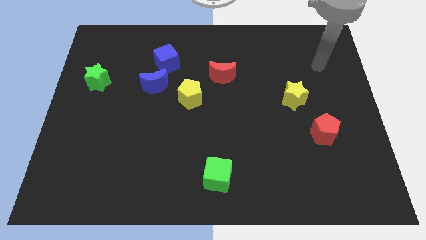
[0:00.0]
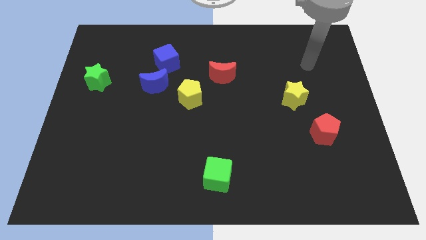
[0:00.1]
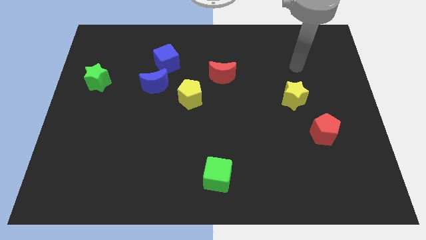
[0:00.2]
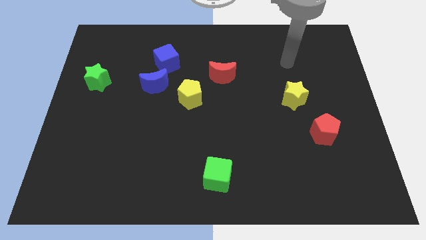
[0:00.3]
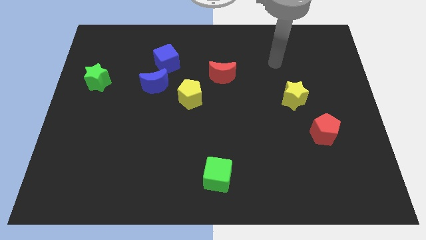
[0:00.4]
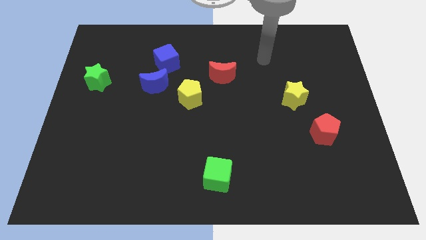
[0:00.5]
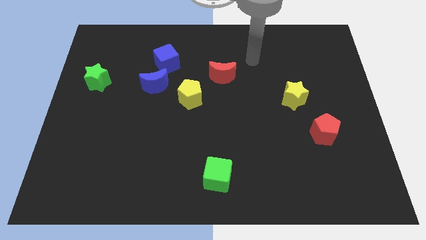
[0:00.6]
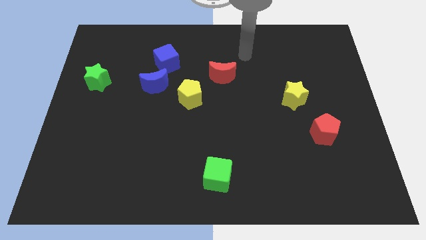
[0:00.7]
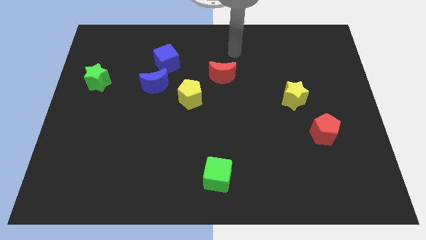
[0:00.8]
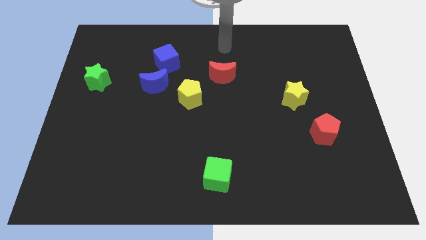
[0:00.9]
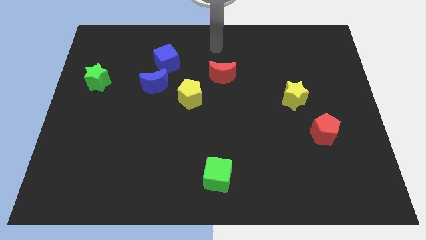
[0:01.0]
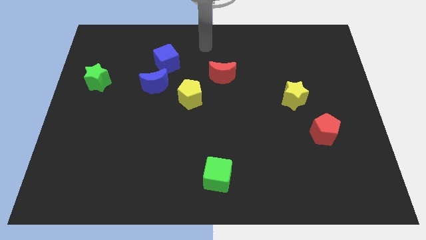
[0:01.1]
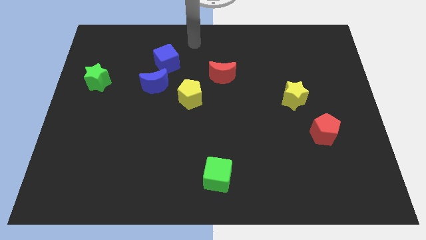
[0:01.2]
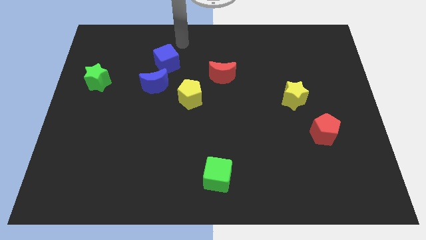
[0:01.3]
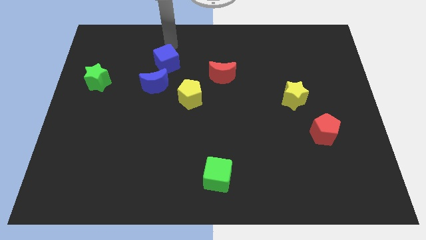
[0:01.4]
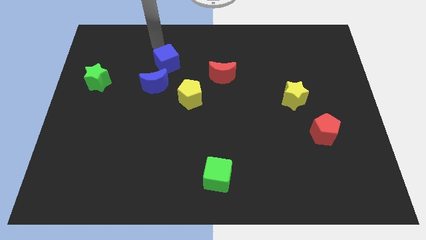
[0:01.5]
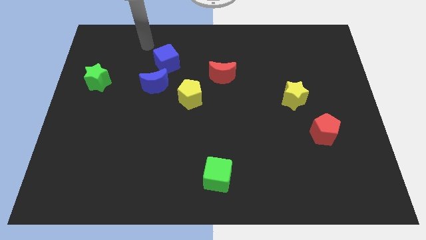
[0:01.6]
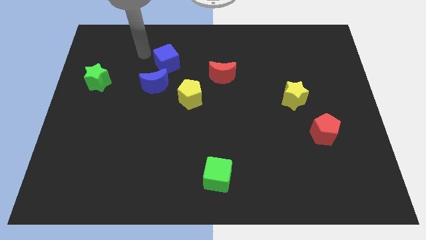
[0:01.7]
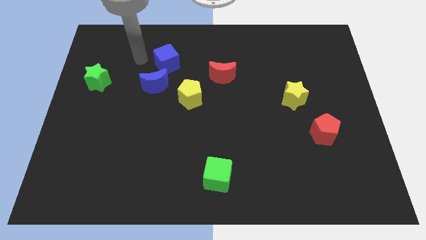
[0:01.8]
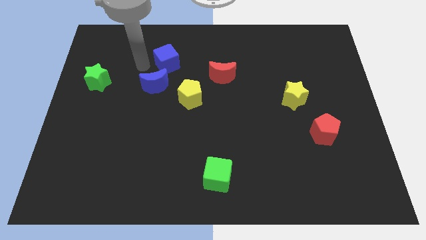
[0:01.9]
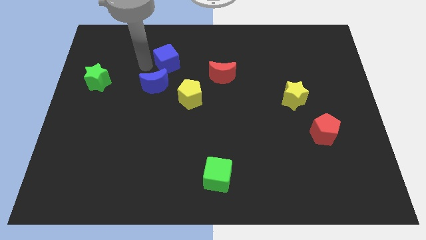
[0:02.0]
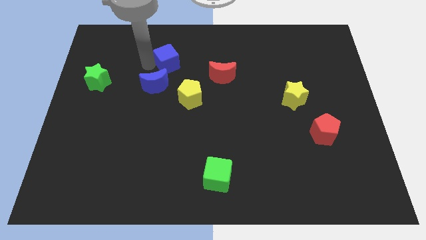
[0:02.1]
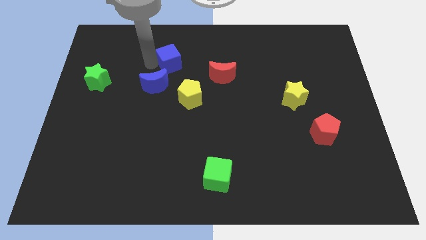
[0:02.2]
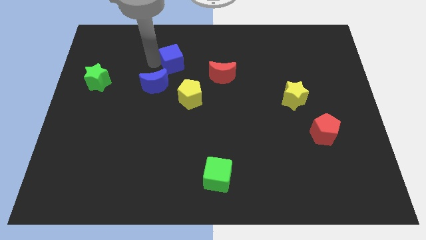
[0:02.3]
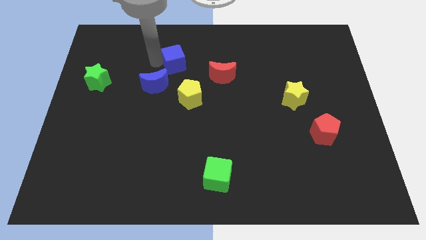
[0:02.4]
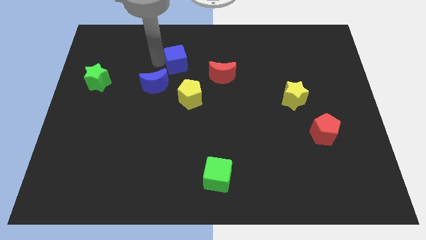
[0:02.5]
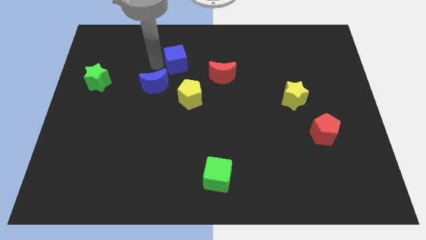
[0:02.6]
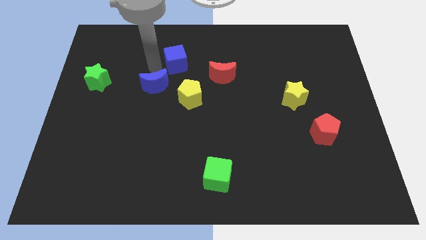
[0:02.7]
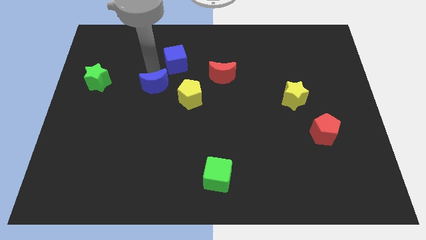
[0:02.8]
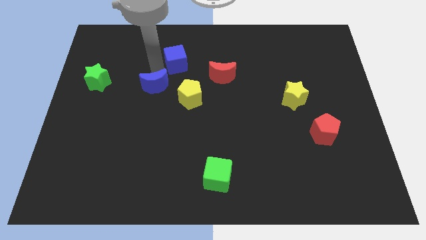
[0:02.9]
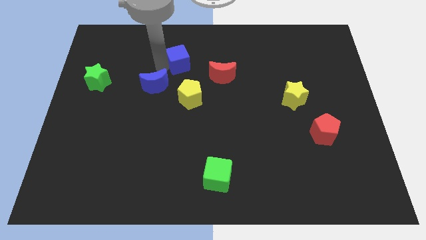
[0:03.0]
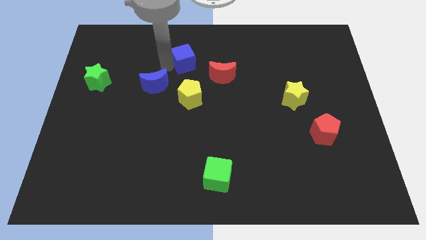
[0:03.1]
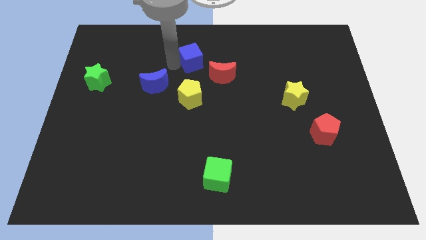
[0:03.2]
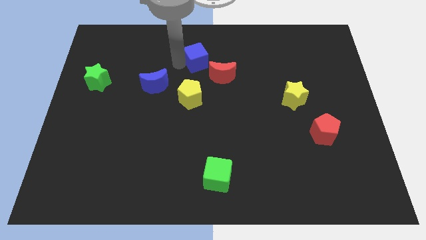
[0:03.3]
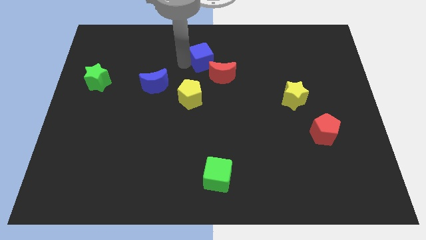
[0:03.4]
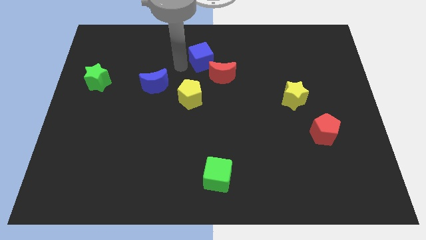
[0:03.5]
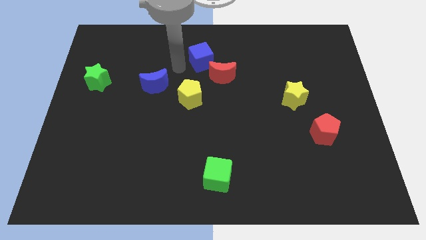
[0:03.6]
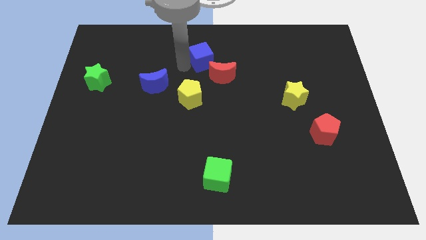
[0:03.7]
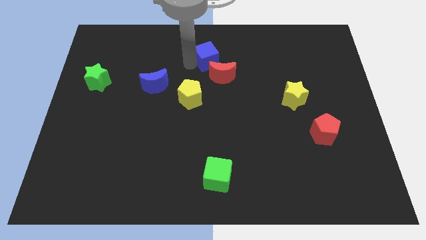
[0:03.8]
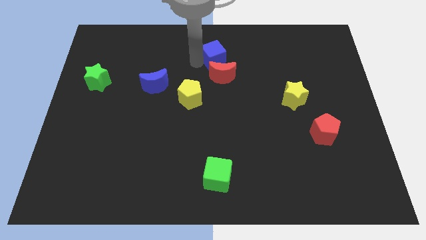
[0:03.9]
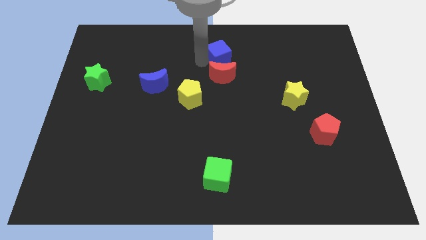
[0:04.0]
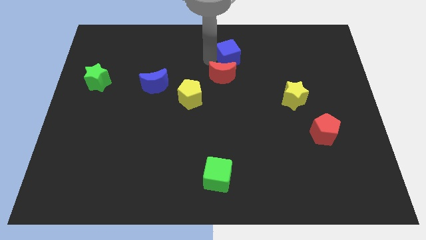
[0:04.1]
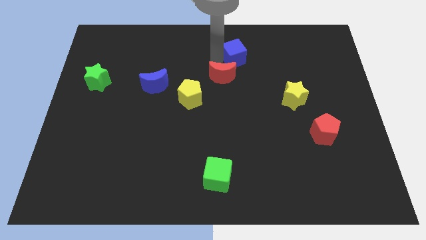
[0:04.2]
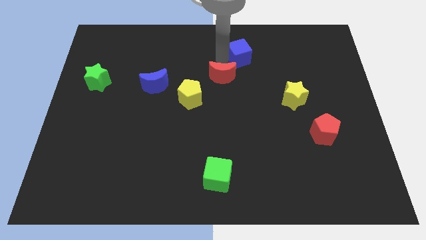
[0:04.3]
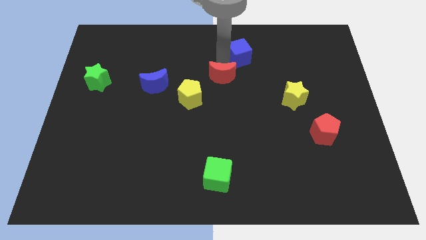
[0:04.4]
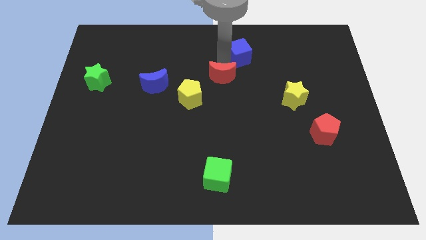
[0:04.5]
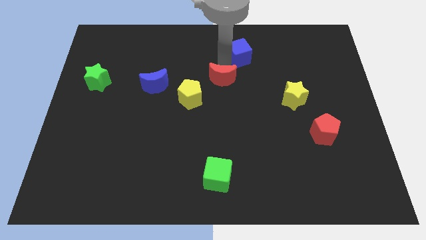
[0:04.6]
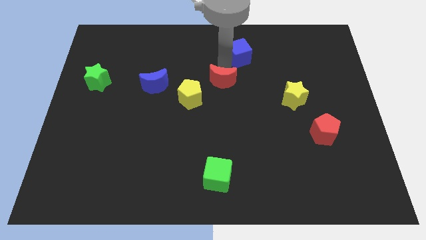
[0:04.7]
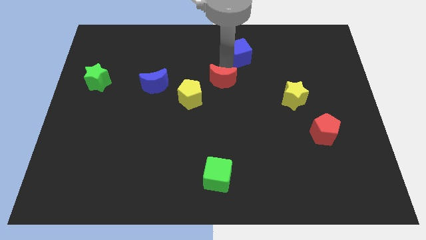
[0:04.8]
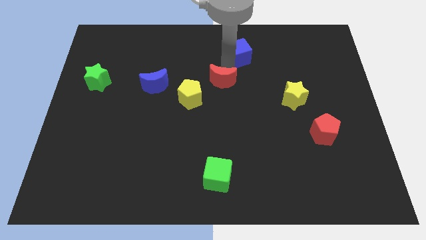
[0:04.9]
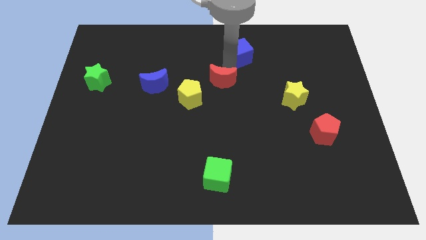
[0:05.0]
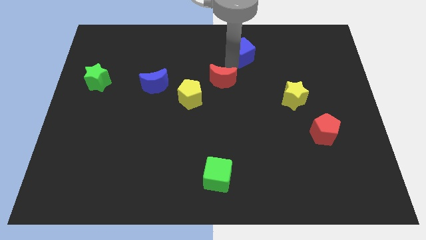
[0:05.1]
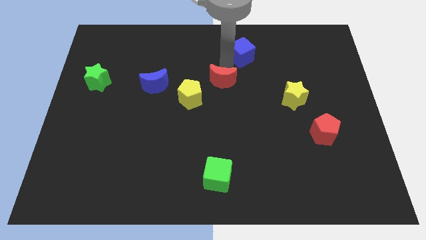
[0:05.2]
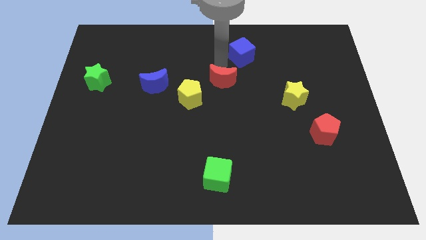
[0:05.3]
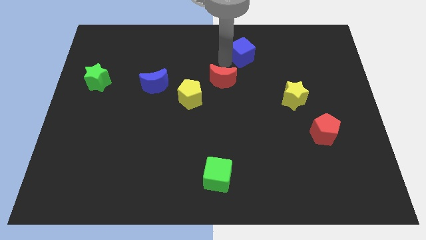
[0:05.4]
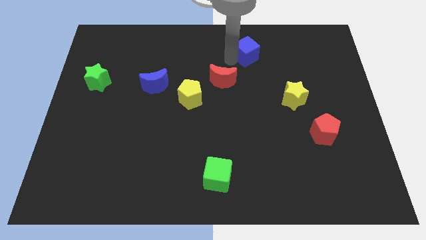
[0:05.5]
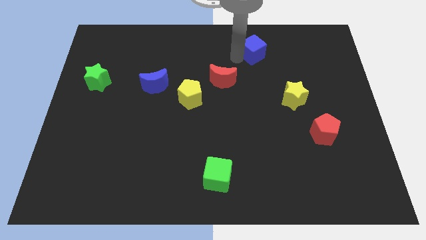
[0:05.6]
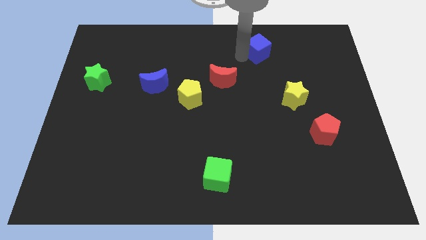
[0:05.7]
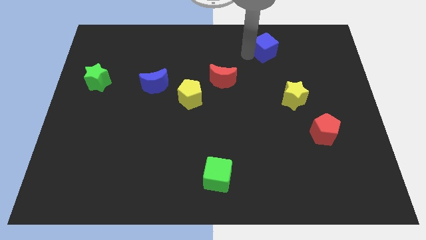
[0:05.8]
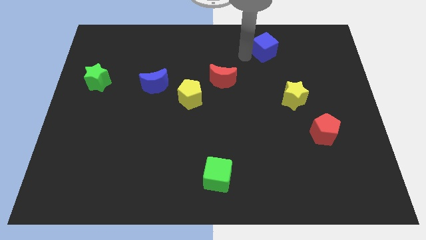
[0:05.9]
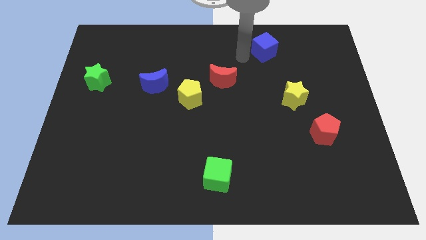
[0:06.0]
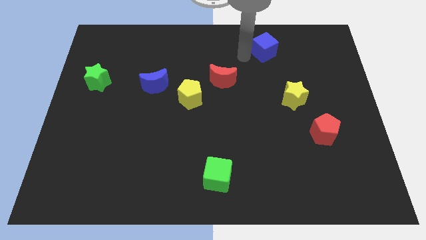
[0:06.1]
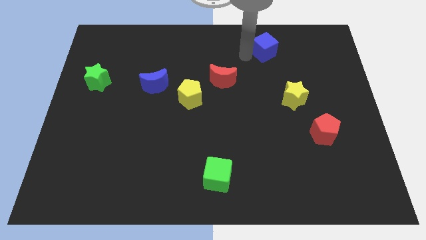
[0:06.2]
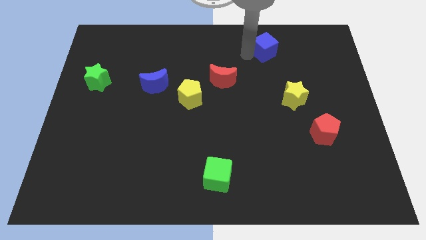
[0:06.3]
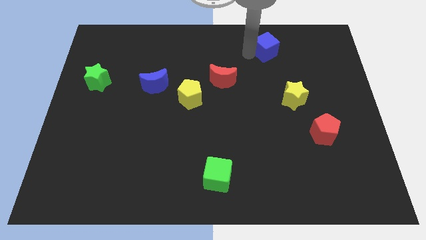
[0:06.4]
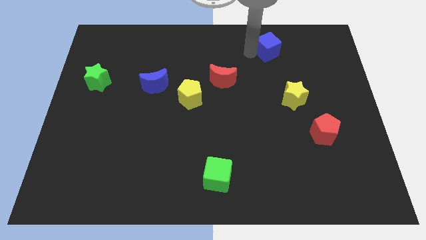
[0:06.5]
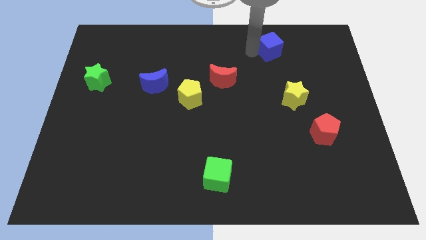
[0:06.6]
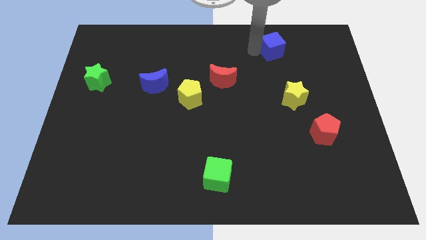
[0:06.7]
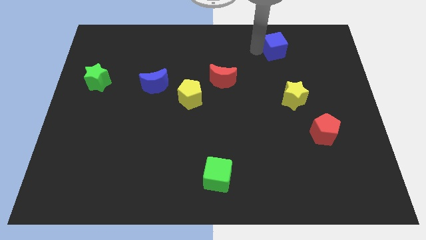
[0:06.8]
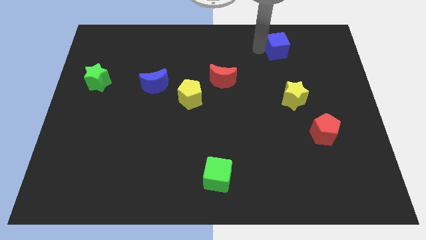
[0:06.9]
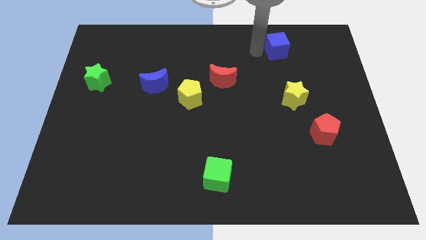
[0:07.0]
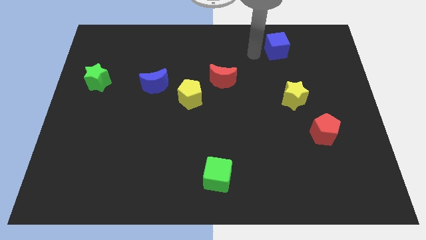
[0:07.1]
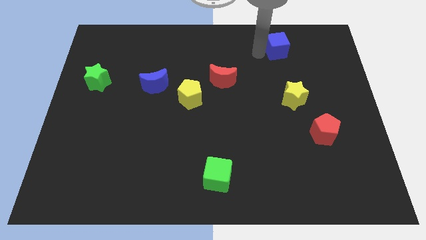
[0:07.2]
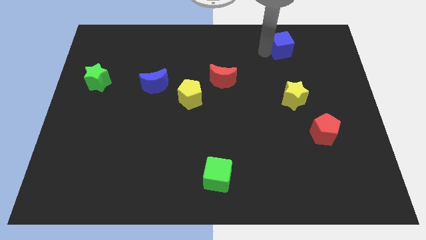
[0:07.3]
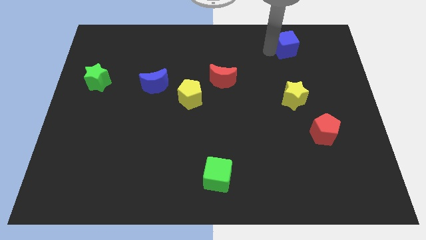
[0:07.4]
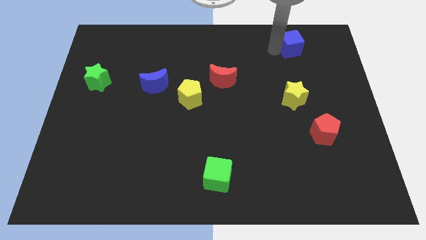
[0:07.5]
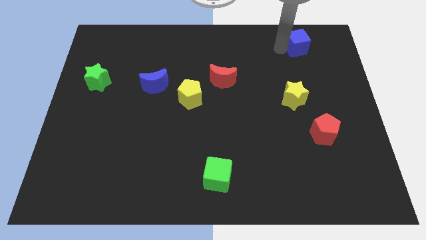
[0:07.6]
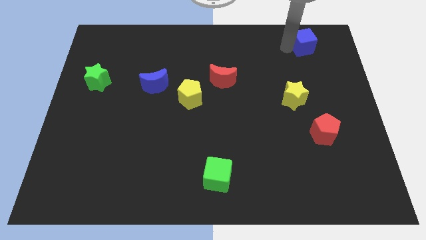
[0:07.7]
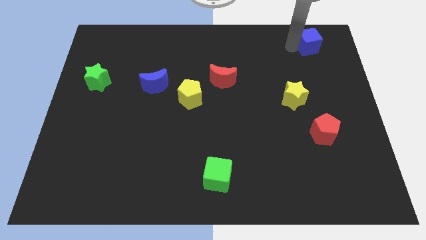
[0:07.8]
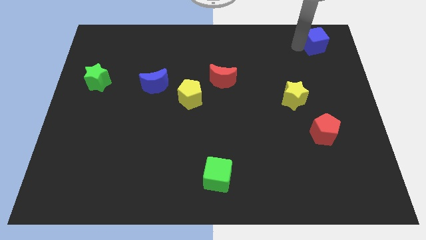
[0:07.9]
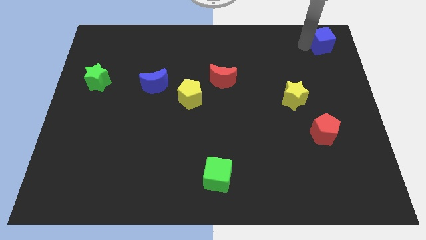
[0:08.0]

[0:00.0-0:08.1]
push the blue cube to the top right corner
